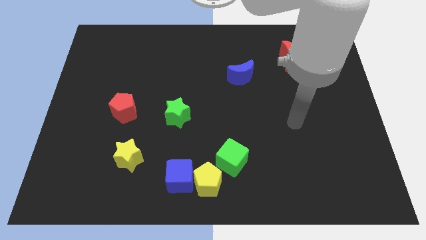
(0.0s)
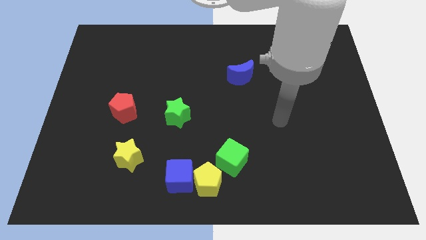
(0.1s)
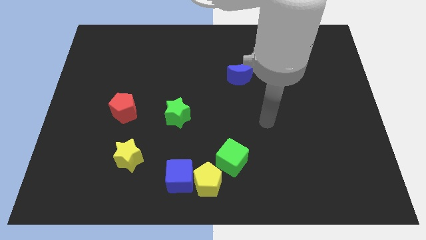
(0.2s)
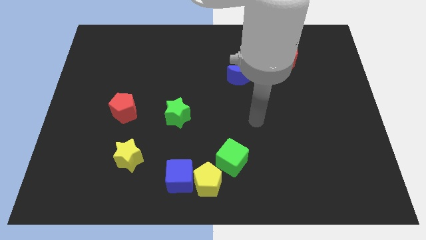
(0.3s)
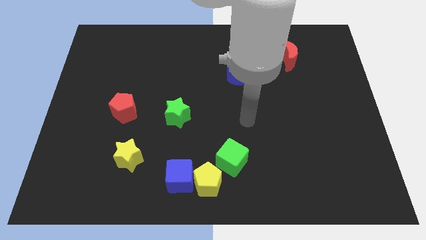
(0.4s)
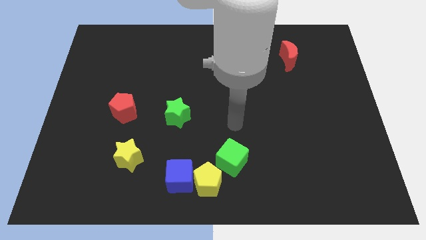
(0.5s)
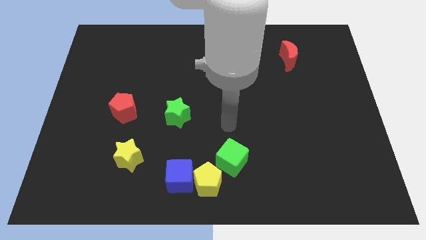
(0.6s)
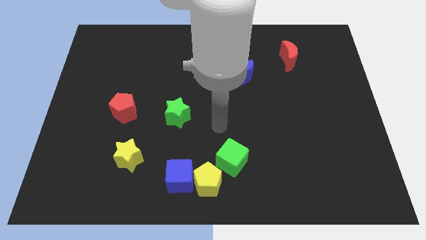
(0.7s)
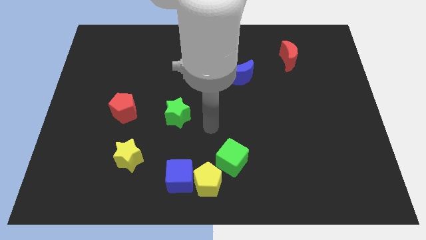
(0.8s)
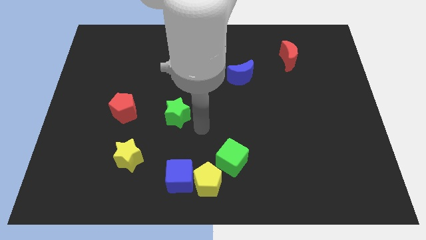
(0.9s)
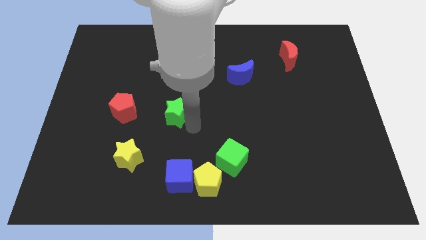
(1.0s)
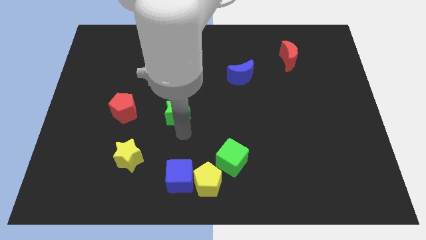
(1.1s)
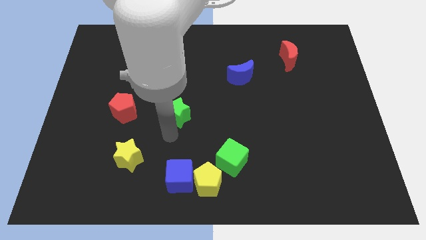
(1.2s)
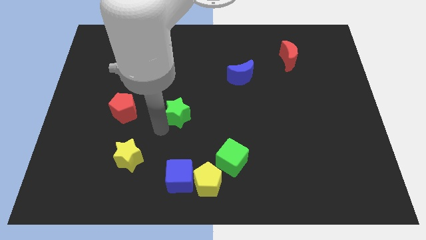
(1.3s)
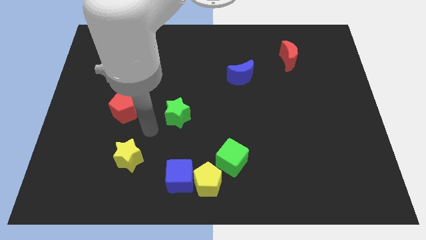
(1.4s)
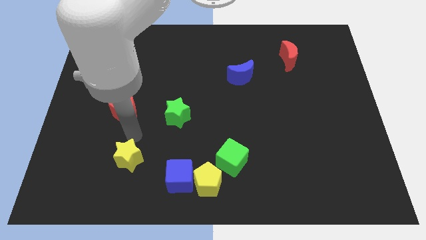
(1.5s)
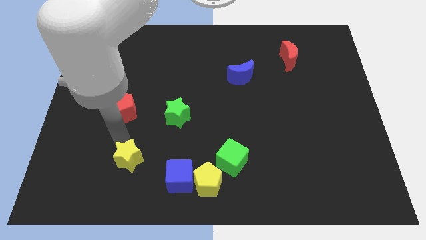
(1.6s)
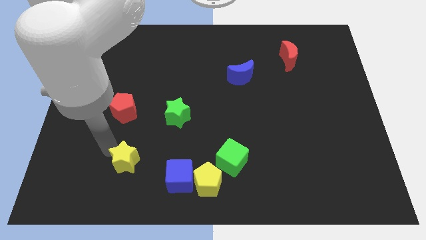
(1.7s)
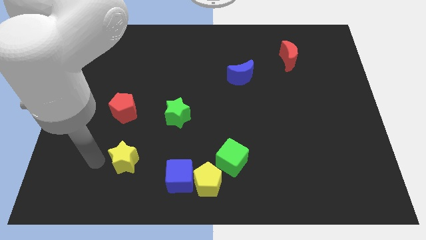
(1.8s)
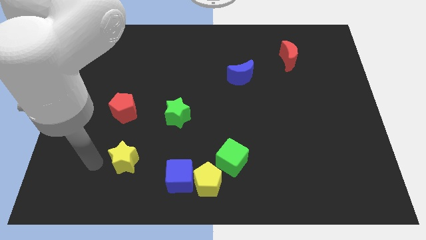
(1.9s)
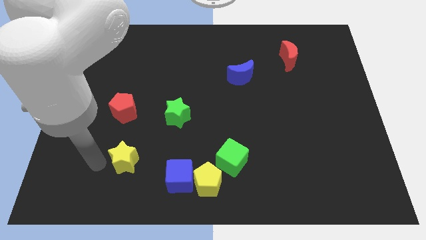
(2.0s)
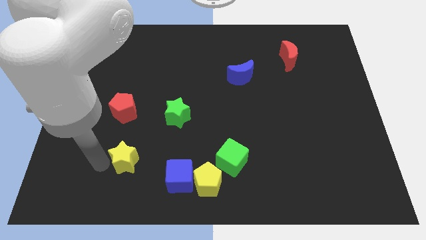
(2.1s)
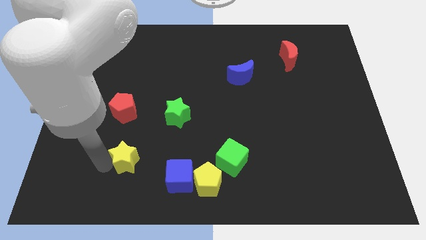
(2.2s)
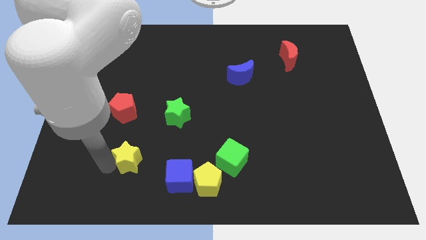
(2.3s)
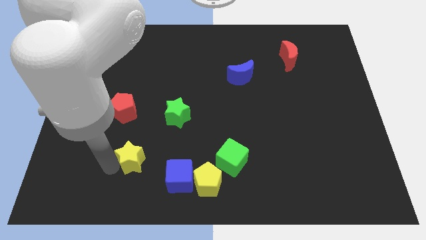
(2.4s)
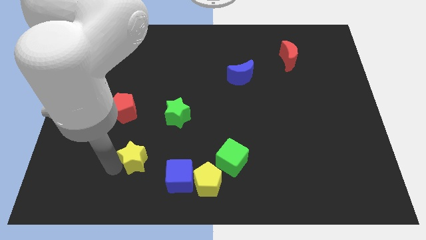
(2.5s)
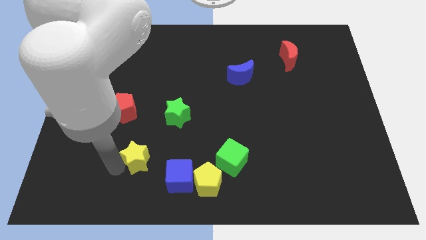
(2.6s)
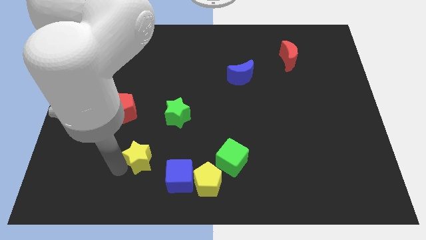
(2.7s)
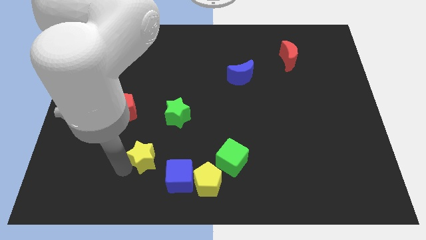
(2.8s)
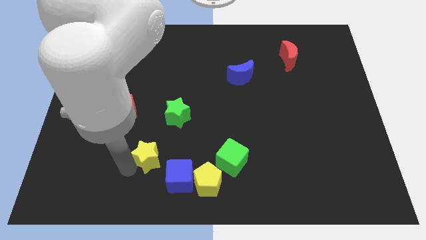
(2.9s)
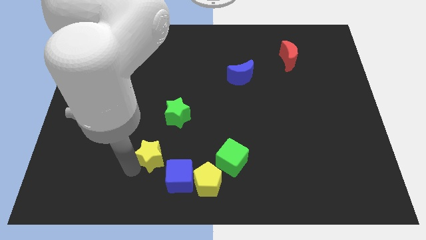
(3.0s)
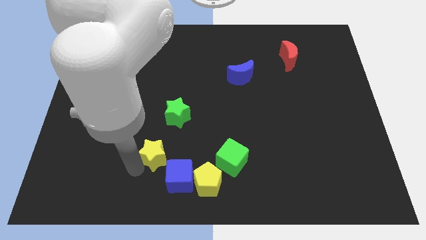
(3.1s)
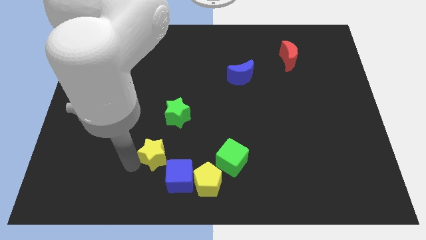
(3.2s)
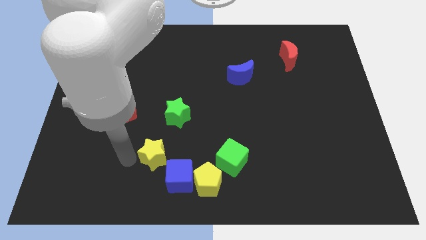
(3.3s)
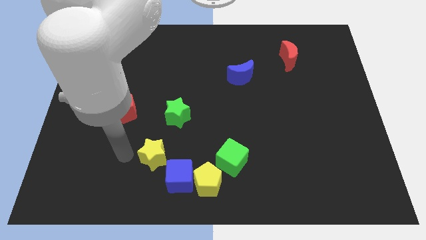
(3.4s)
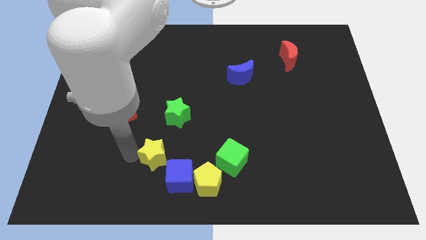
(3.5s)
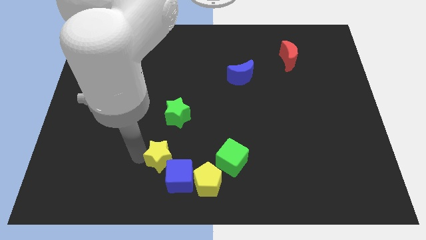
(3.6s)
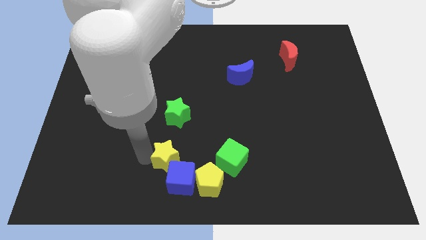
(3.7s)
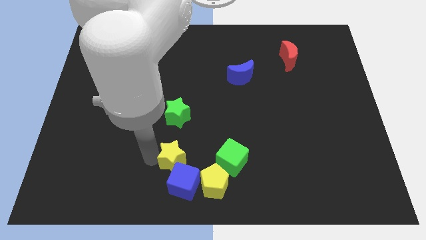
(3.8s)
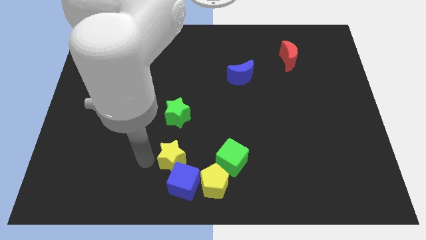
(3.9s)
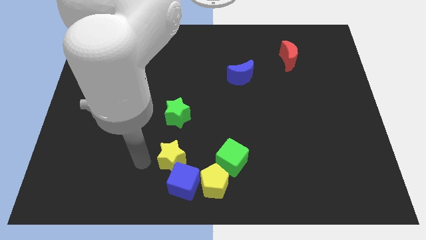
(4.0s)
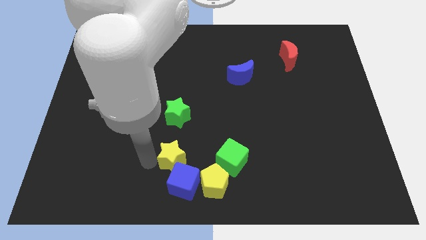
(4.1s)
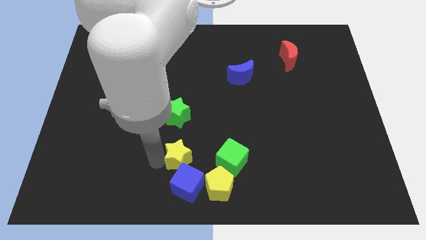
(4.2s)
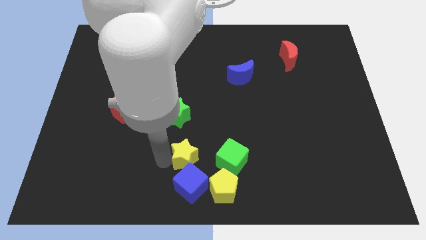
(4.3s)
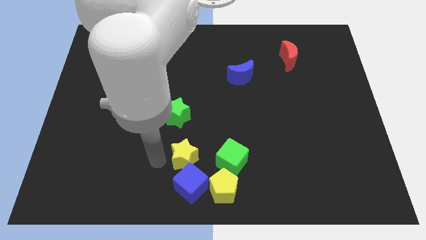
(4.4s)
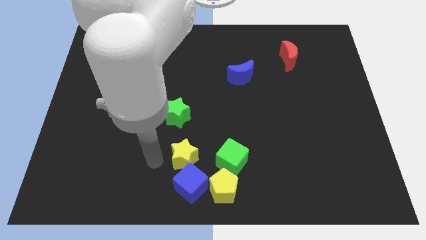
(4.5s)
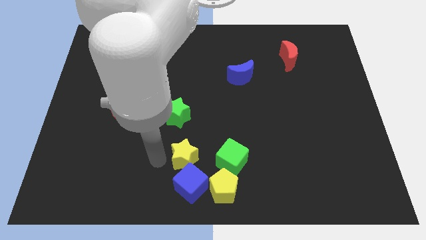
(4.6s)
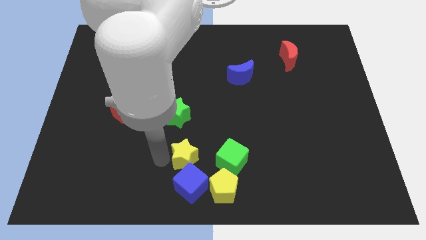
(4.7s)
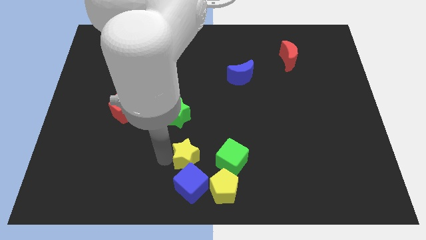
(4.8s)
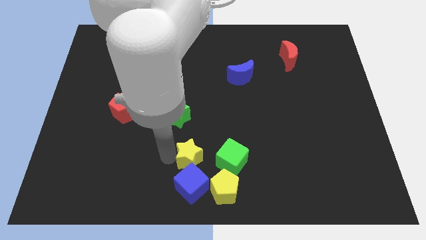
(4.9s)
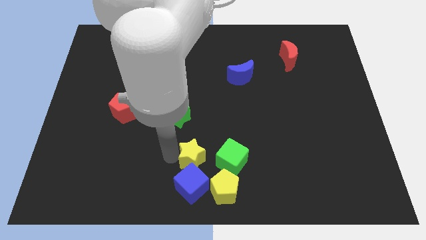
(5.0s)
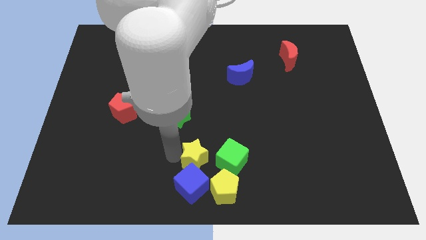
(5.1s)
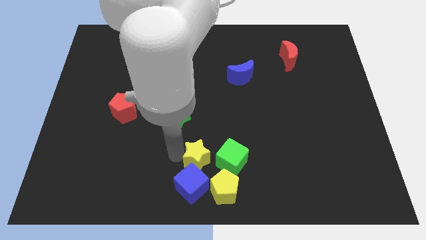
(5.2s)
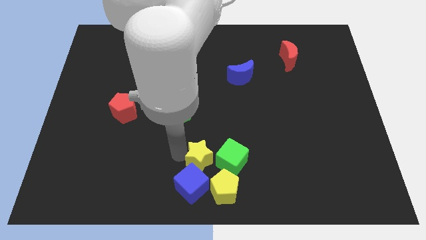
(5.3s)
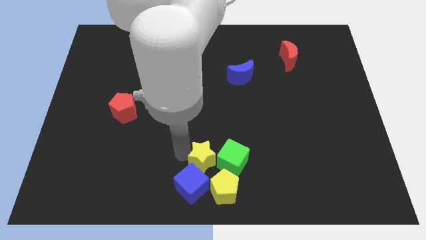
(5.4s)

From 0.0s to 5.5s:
push the yellow star close to the green cube

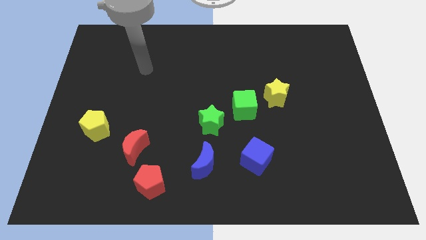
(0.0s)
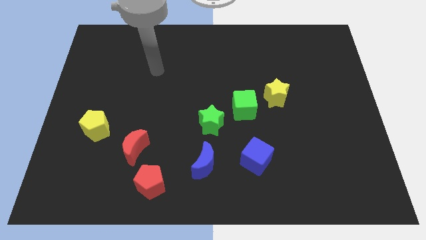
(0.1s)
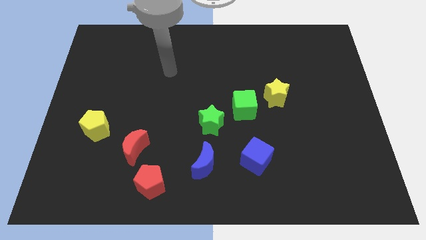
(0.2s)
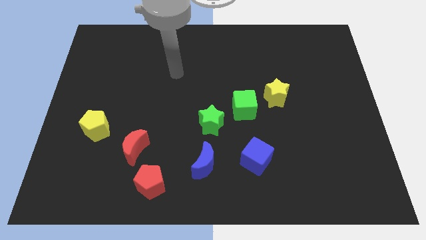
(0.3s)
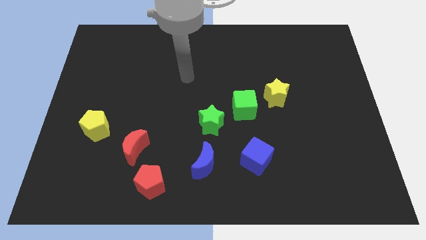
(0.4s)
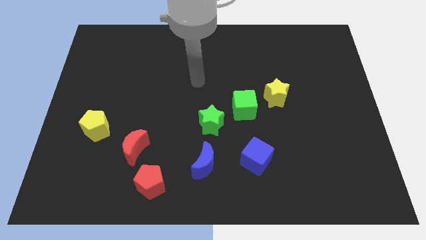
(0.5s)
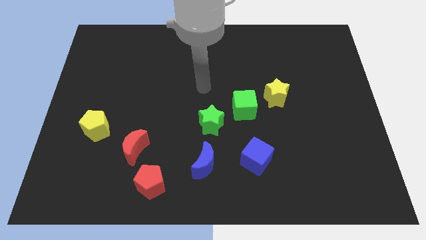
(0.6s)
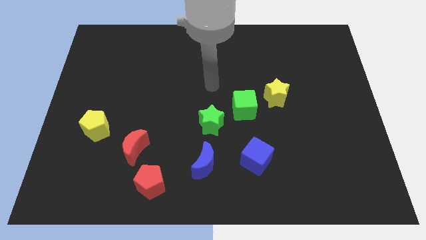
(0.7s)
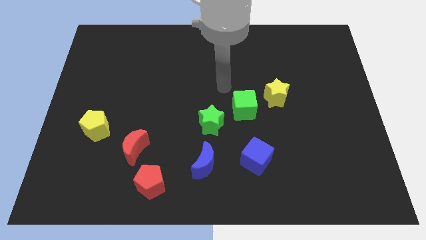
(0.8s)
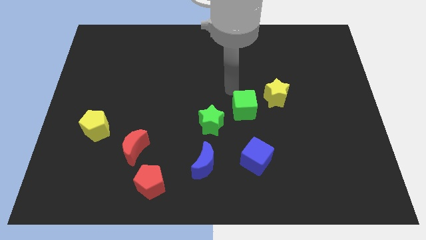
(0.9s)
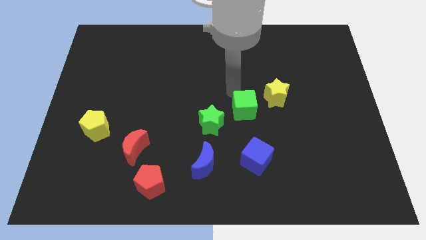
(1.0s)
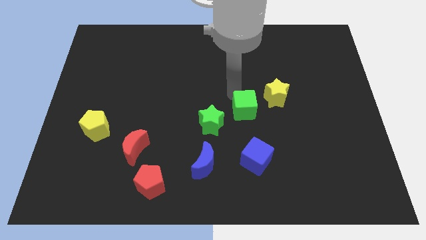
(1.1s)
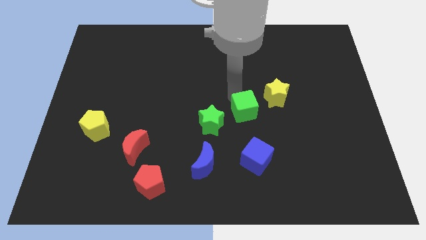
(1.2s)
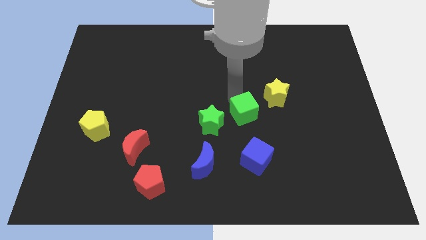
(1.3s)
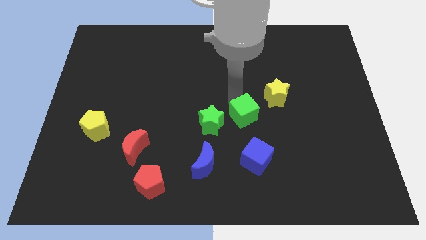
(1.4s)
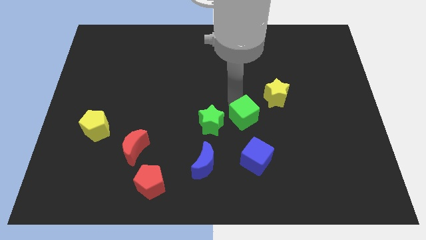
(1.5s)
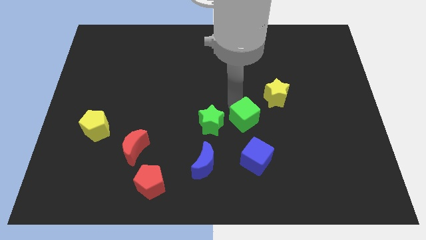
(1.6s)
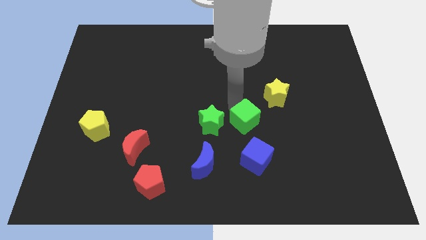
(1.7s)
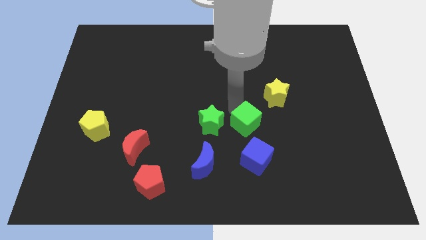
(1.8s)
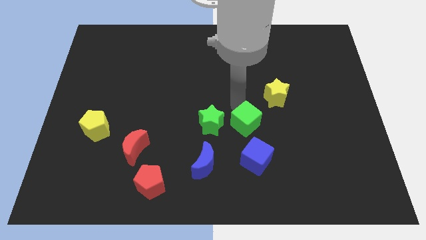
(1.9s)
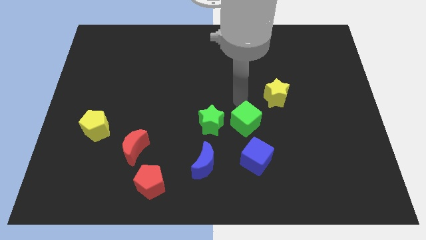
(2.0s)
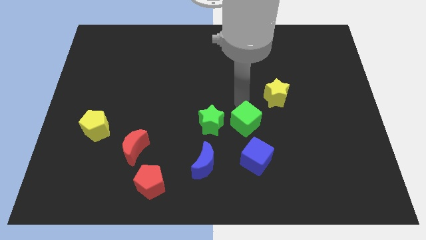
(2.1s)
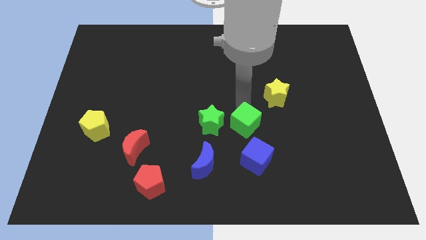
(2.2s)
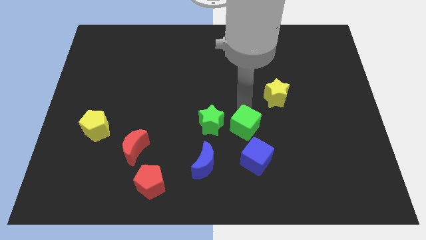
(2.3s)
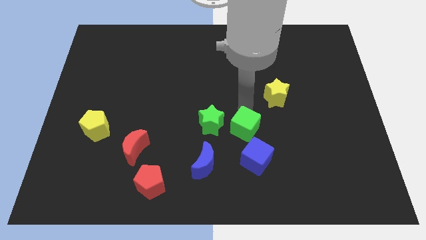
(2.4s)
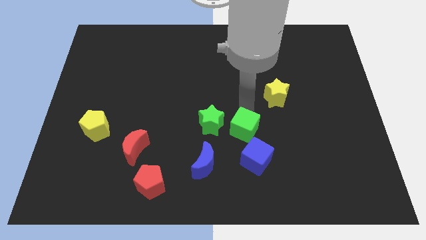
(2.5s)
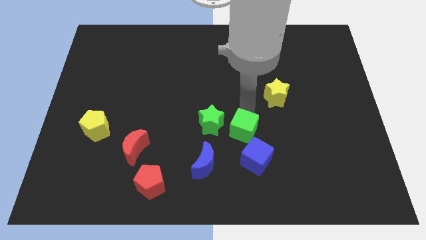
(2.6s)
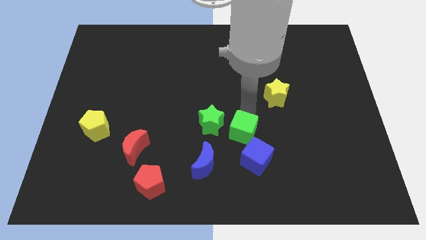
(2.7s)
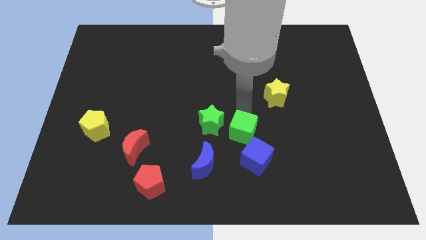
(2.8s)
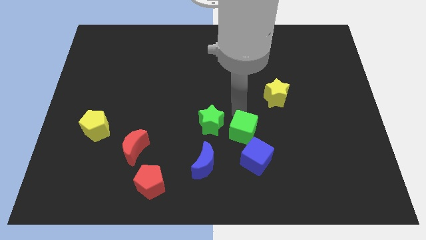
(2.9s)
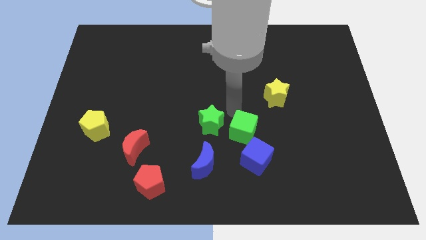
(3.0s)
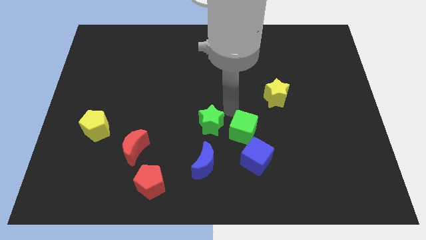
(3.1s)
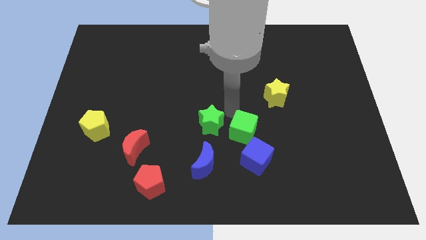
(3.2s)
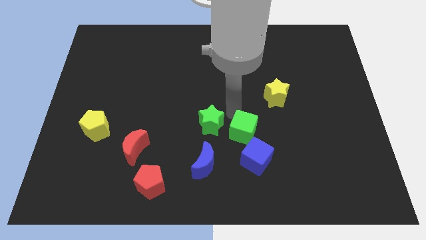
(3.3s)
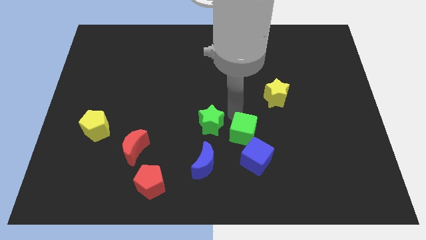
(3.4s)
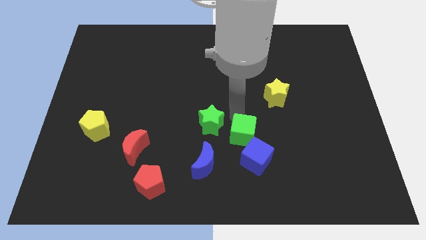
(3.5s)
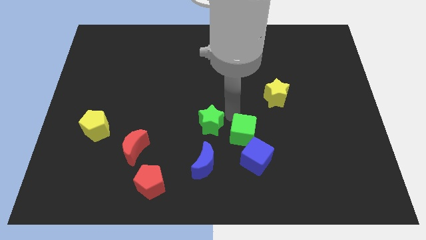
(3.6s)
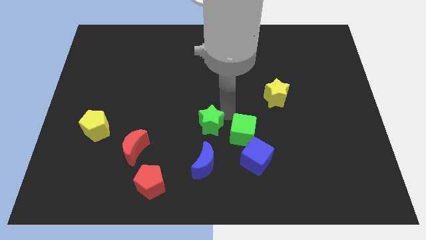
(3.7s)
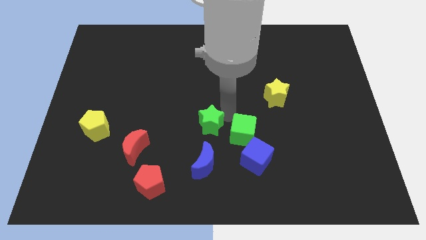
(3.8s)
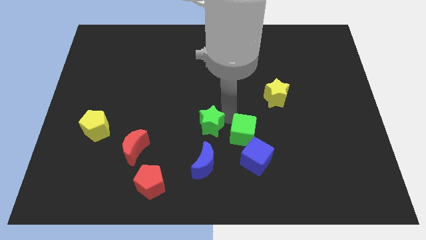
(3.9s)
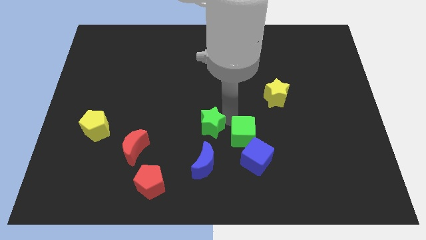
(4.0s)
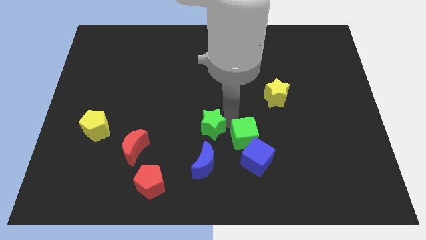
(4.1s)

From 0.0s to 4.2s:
push the green cube close to the blue cube
